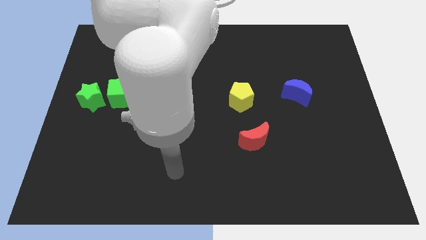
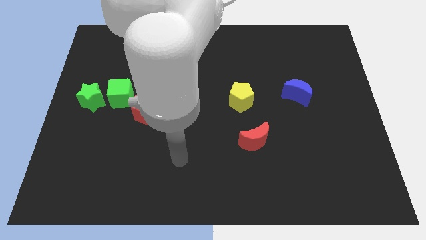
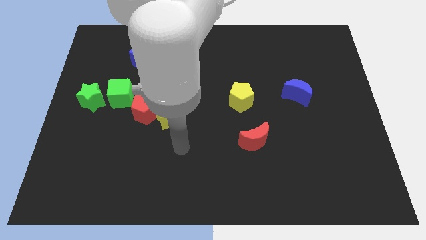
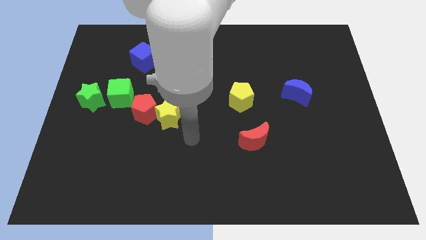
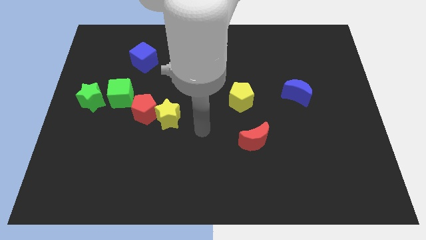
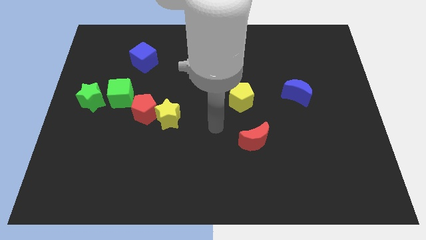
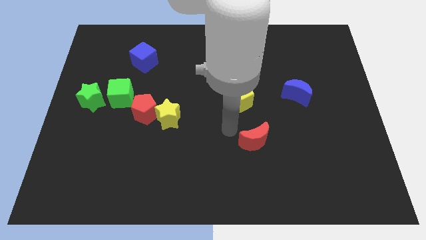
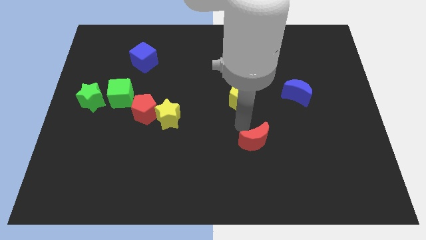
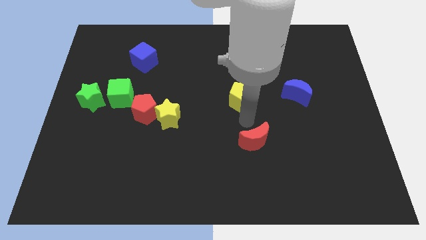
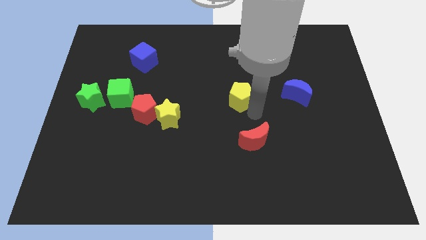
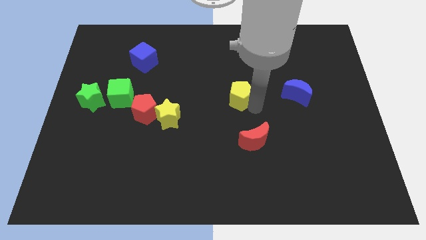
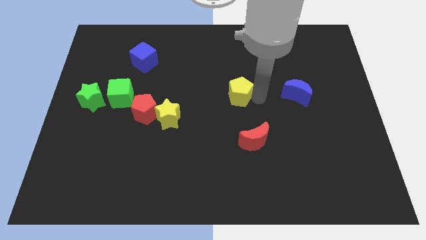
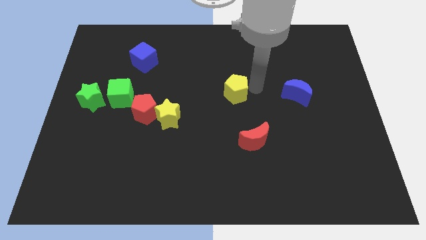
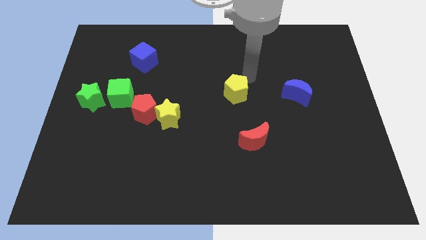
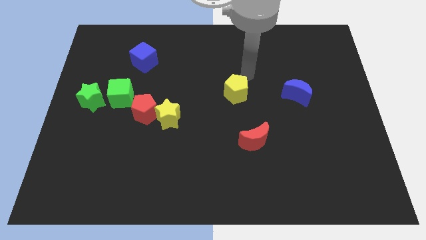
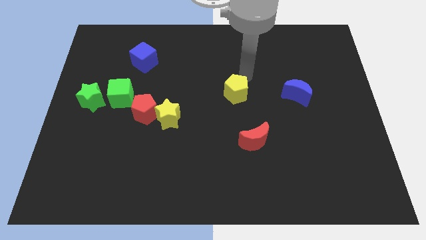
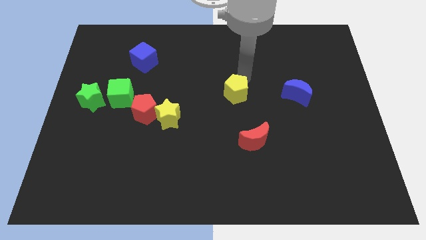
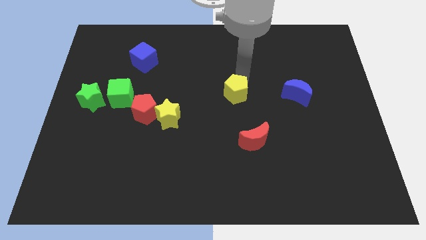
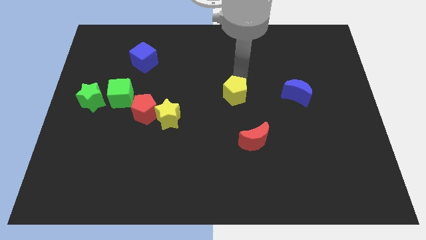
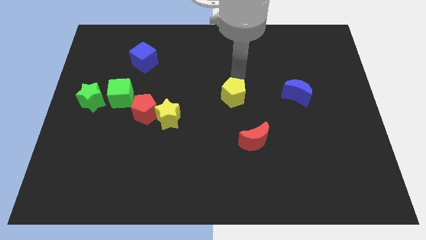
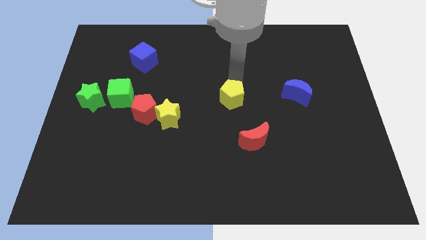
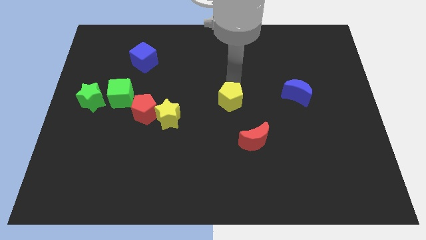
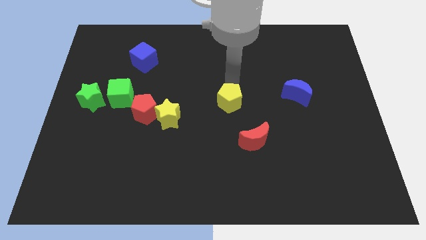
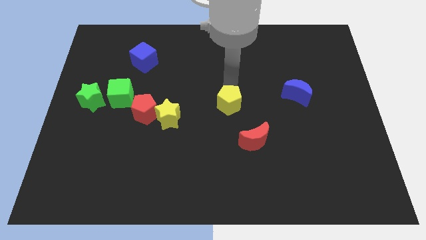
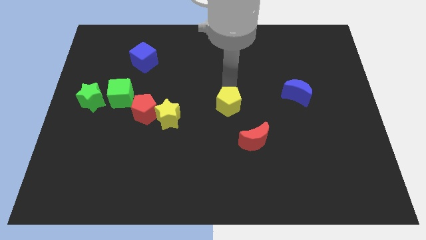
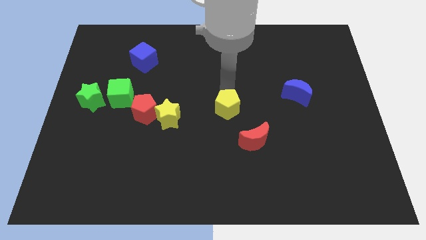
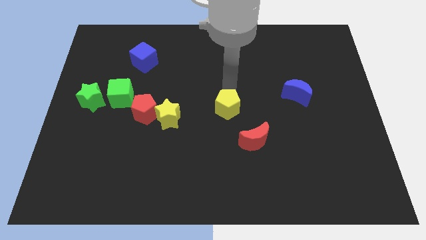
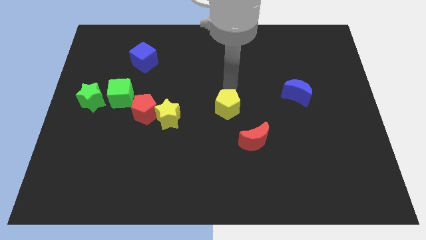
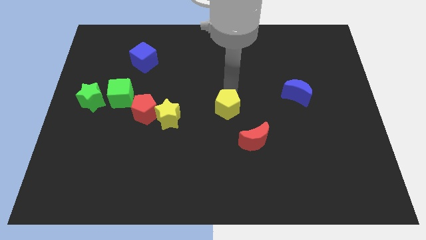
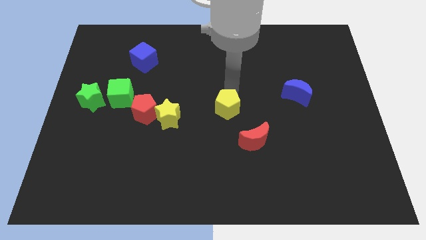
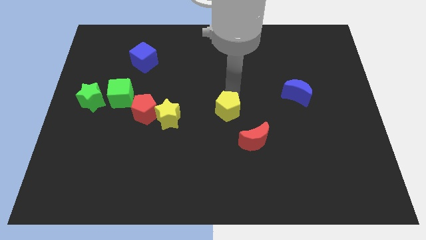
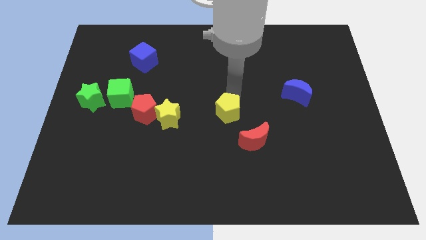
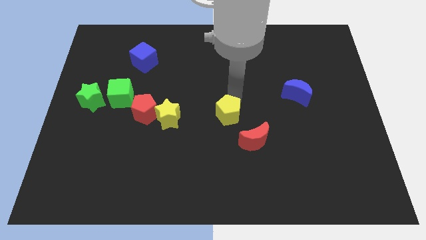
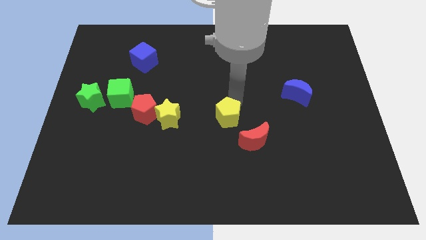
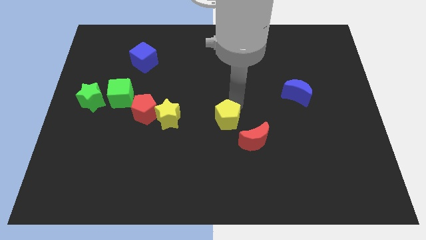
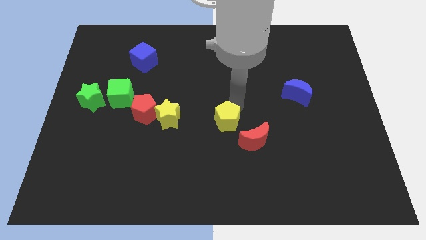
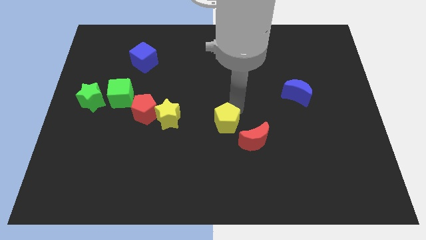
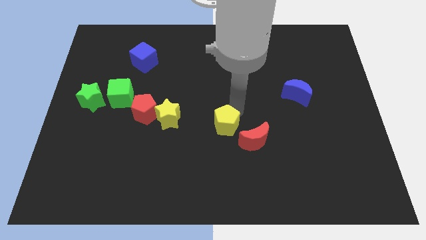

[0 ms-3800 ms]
push the yellow pentagon down a bit

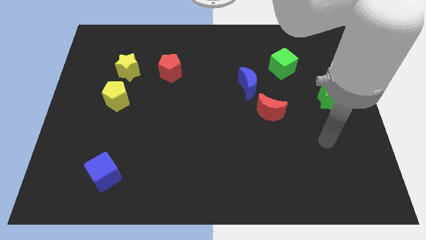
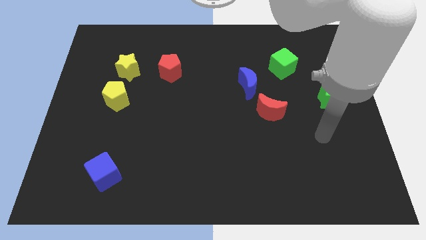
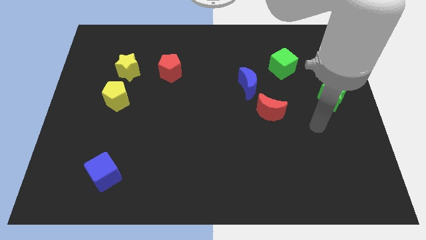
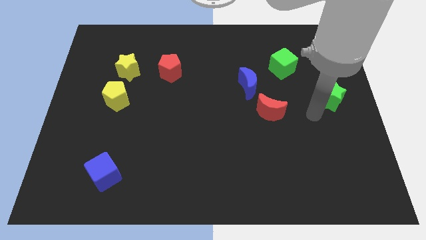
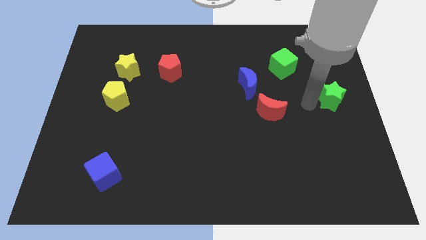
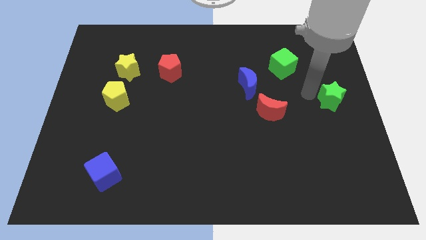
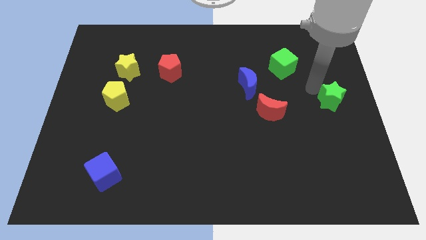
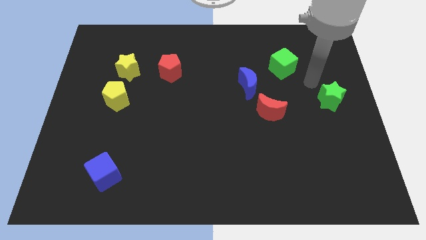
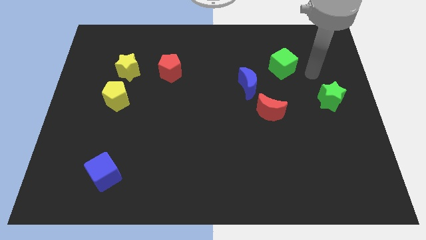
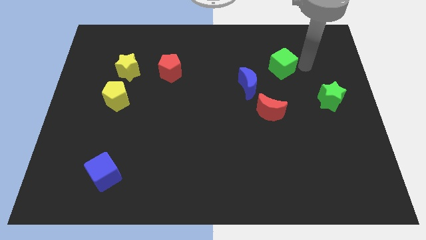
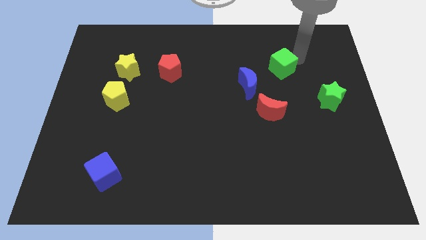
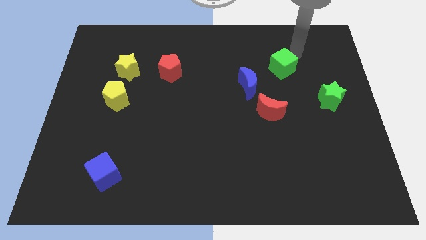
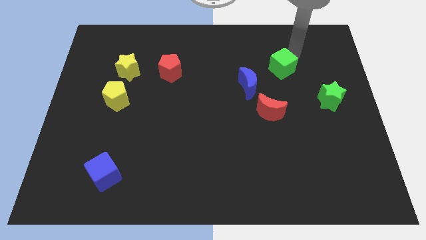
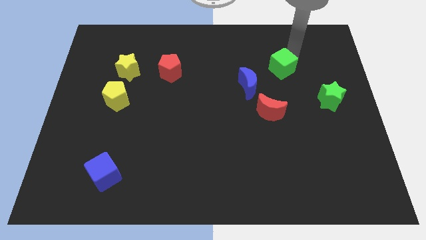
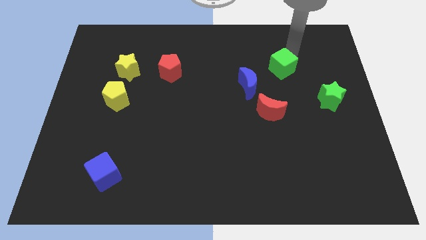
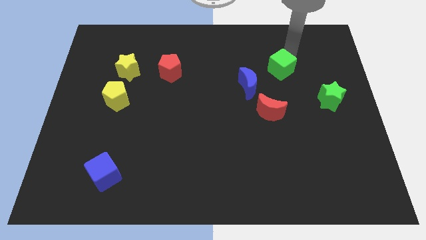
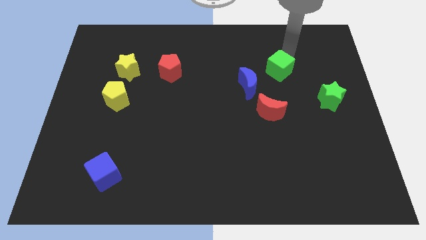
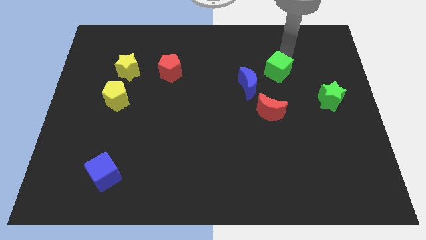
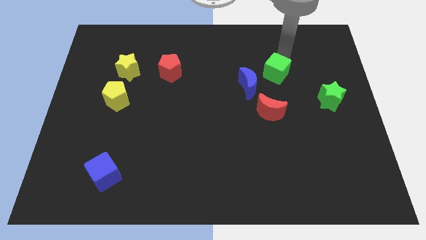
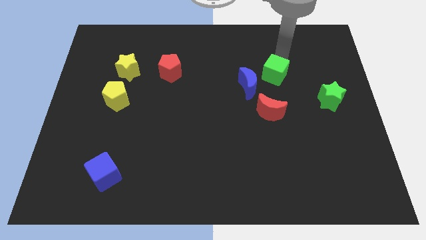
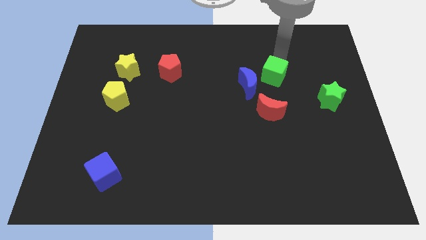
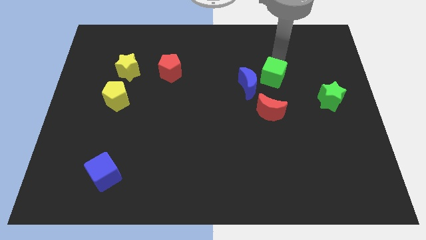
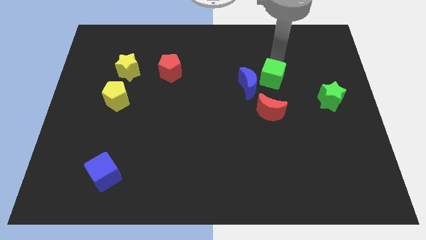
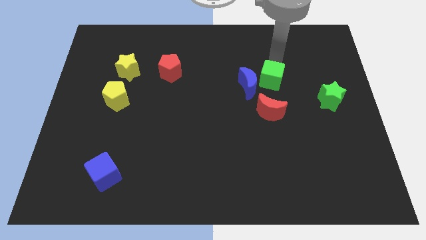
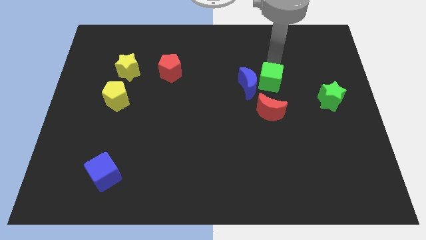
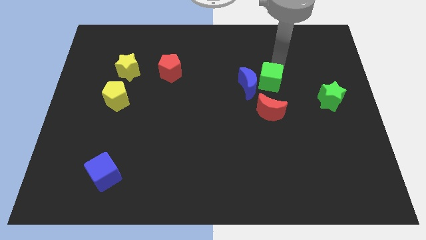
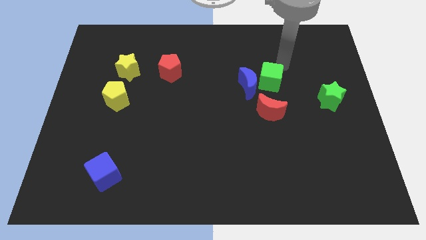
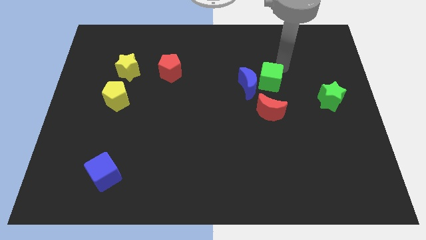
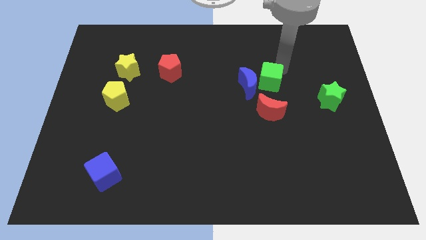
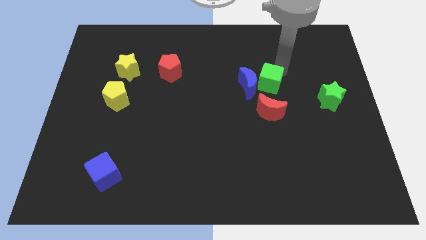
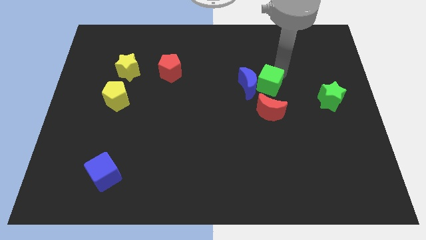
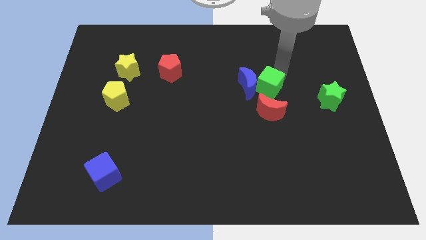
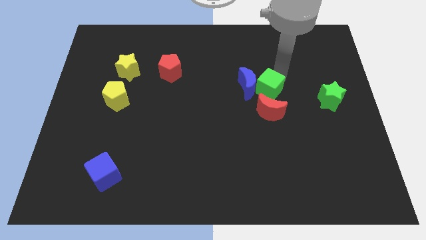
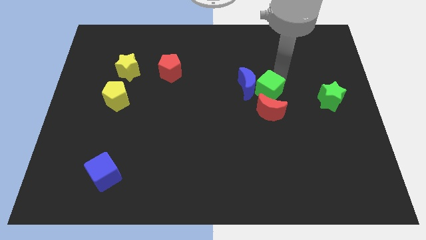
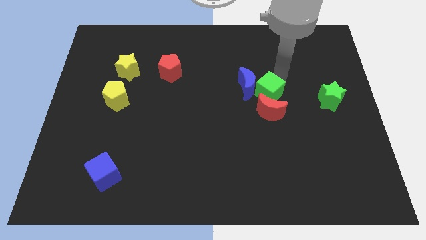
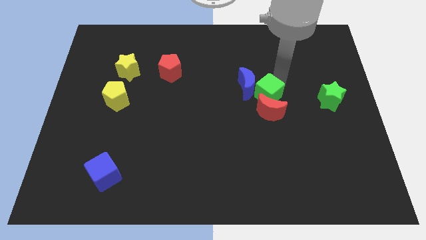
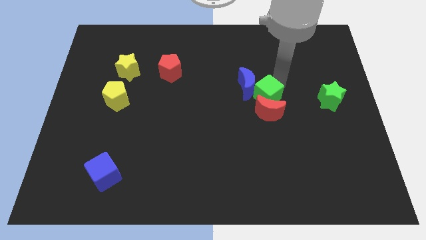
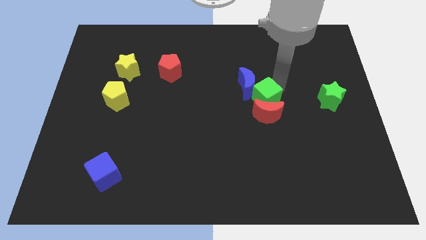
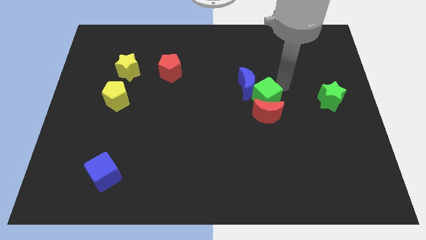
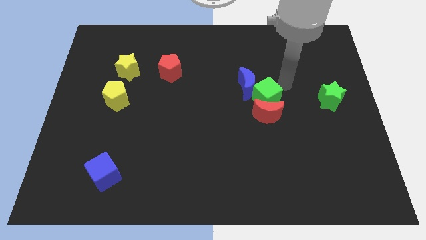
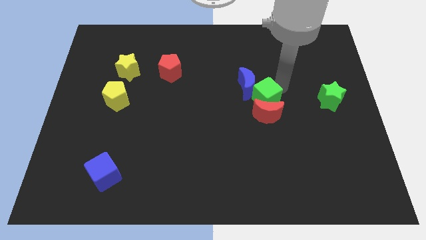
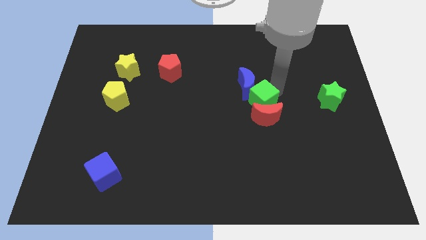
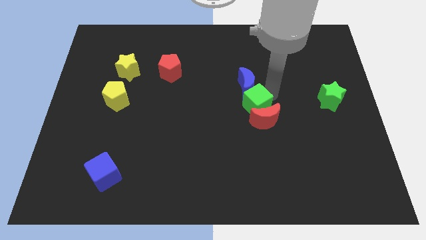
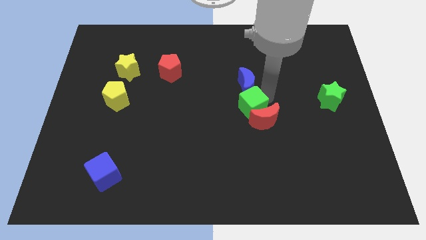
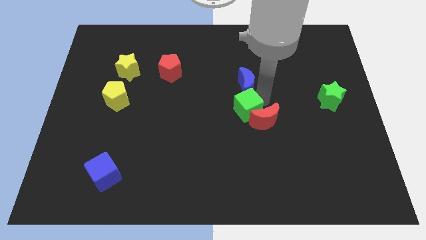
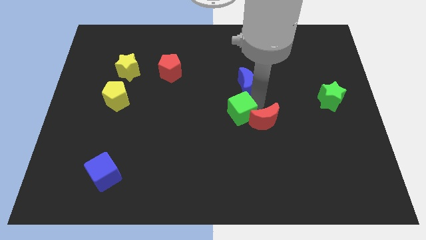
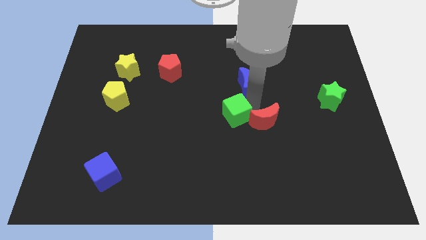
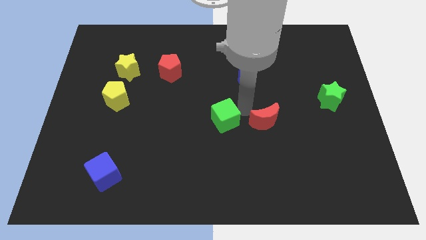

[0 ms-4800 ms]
move the green cube diagonally down and left
